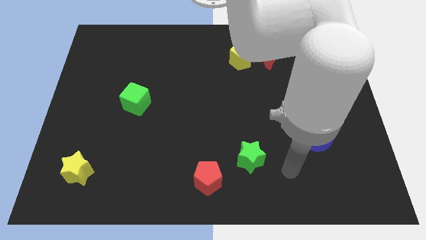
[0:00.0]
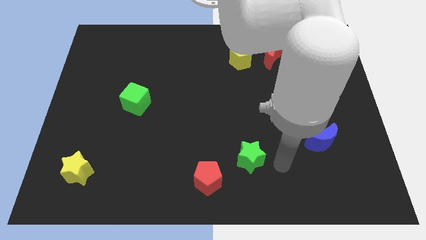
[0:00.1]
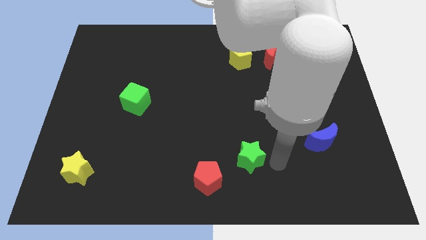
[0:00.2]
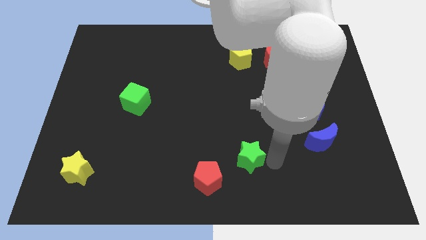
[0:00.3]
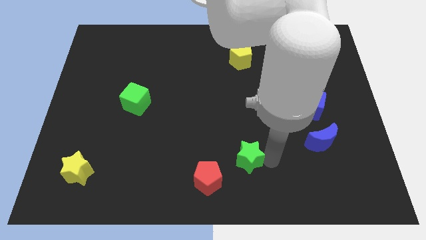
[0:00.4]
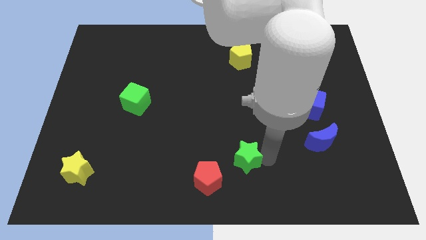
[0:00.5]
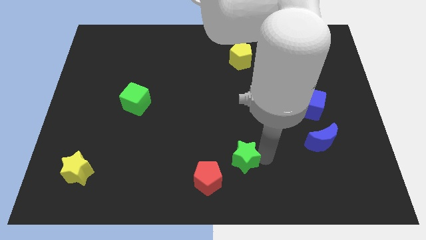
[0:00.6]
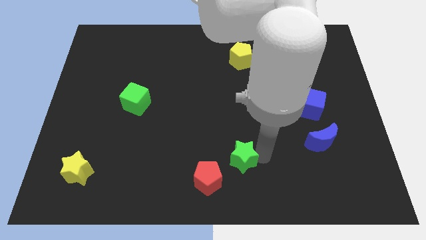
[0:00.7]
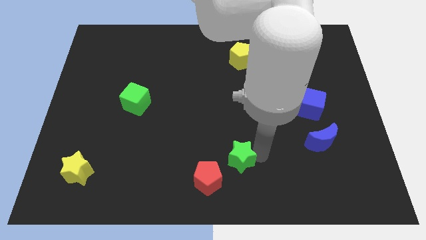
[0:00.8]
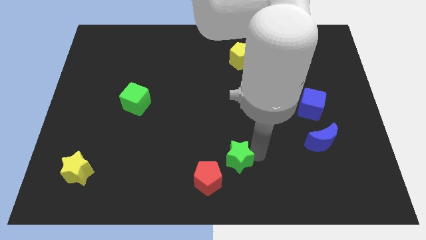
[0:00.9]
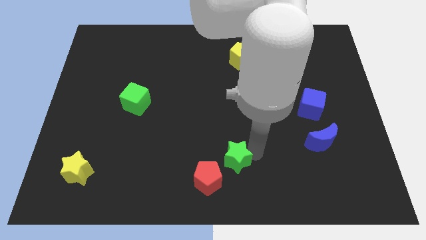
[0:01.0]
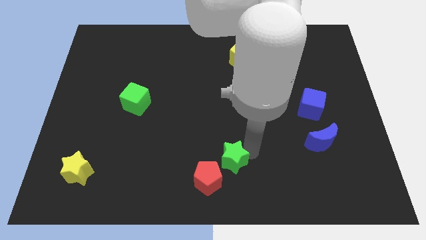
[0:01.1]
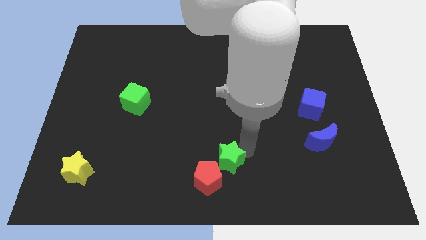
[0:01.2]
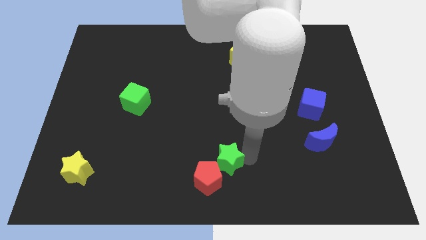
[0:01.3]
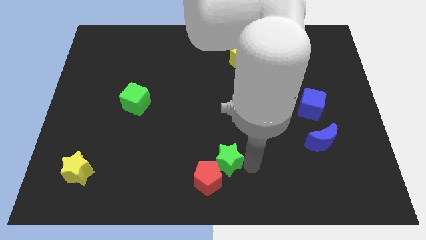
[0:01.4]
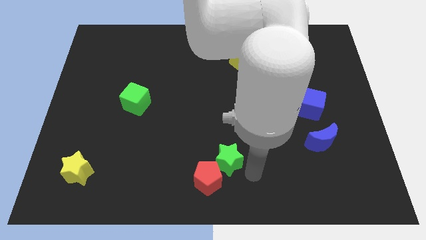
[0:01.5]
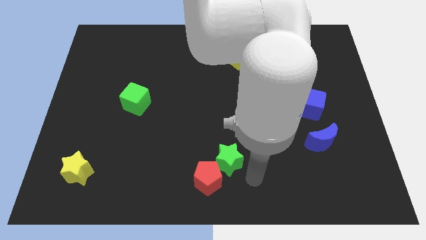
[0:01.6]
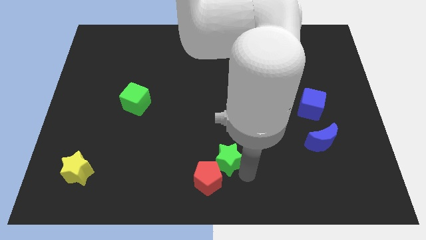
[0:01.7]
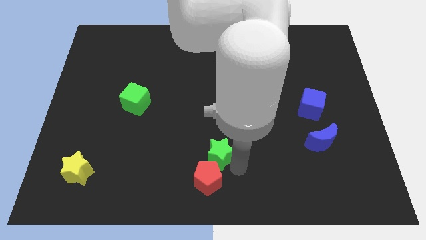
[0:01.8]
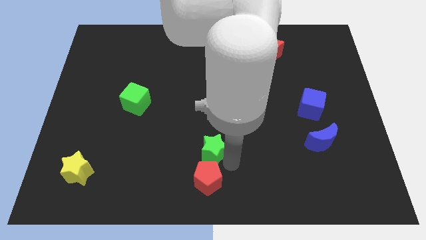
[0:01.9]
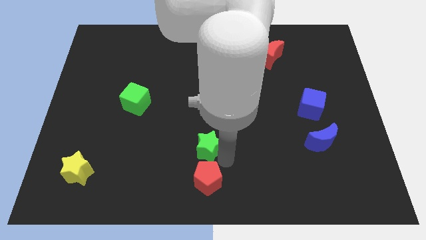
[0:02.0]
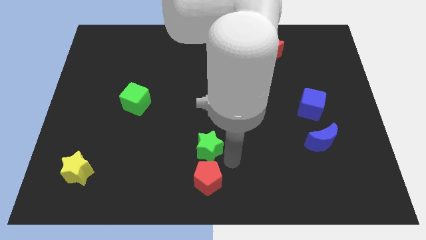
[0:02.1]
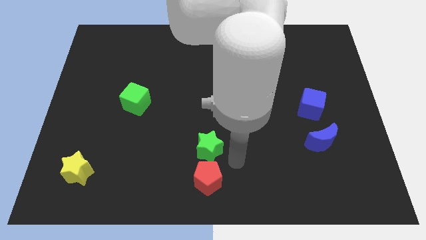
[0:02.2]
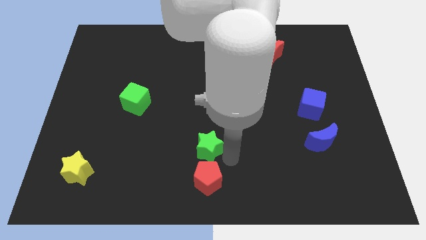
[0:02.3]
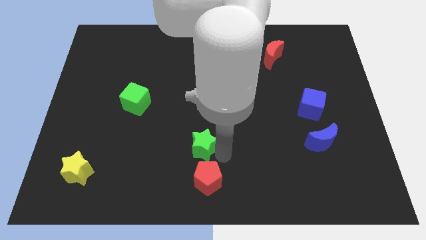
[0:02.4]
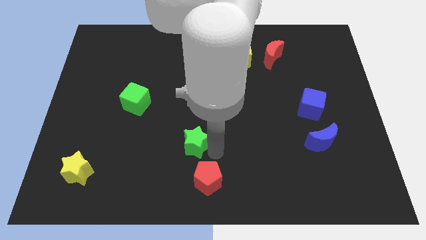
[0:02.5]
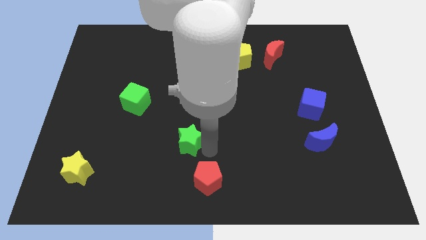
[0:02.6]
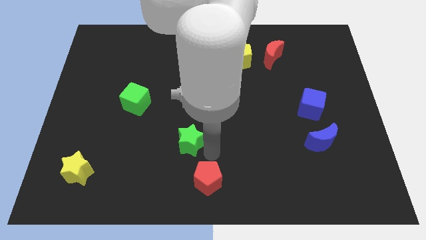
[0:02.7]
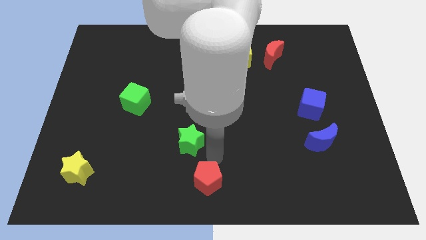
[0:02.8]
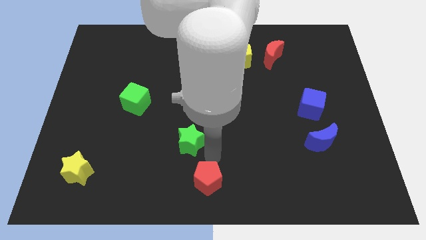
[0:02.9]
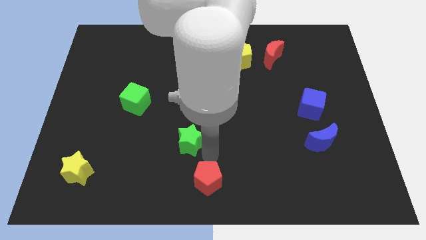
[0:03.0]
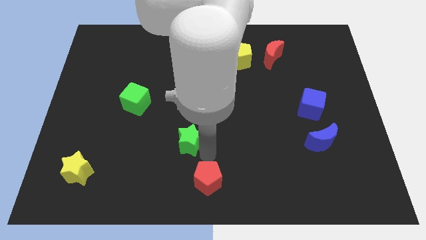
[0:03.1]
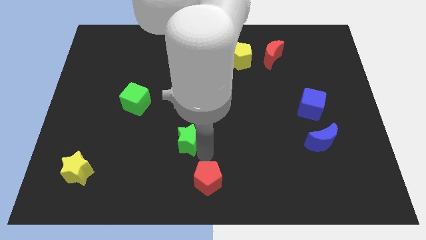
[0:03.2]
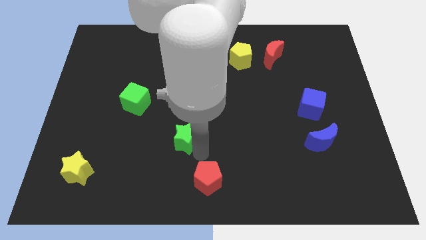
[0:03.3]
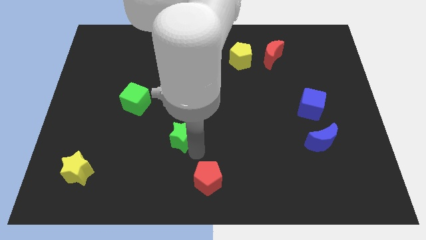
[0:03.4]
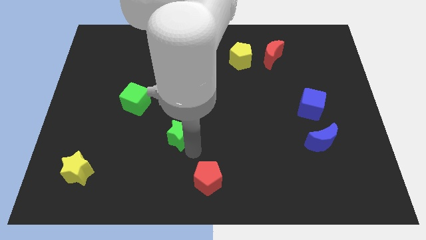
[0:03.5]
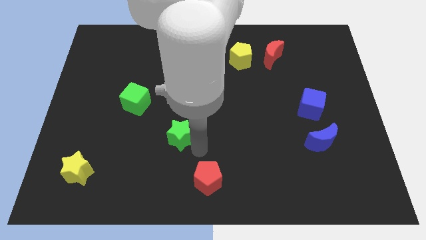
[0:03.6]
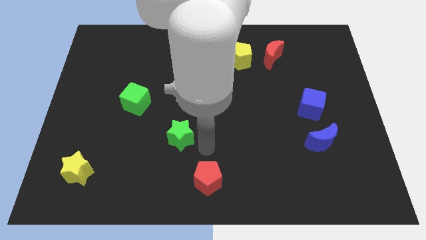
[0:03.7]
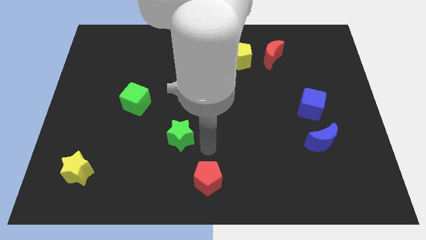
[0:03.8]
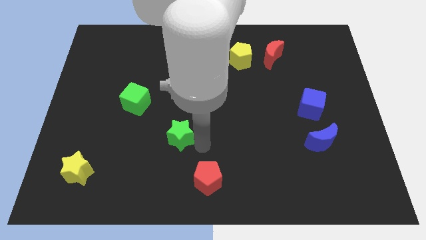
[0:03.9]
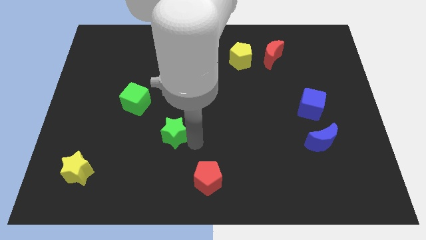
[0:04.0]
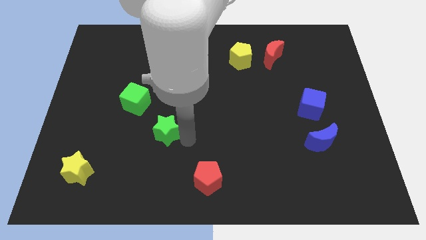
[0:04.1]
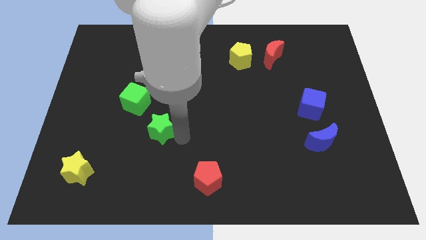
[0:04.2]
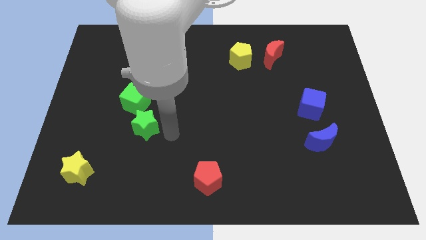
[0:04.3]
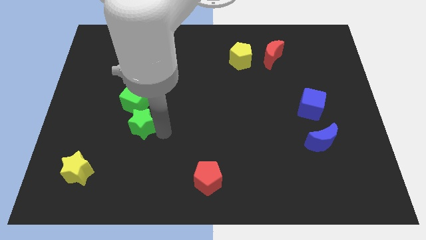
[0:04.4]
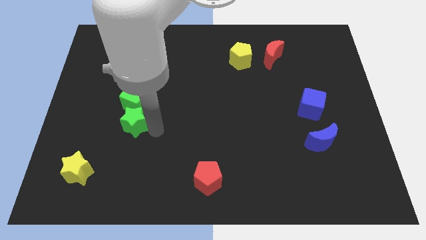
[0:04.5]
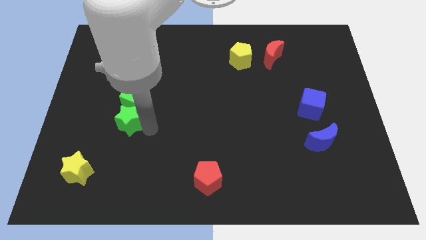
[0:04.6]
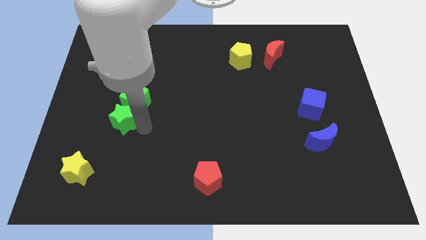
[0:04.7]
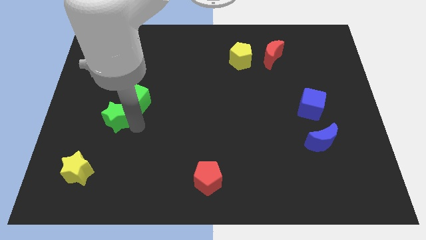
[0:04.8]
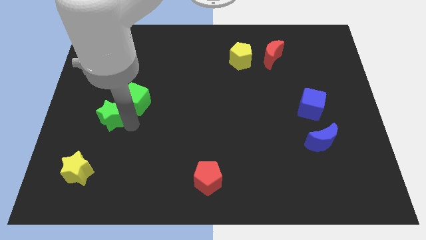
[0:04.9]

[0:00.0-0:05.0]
put the green star to the left side of the green cube
